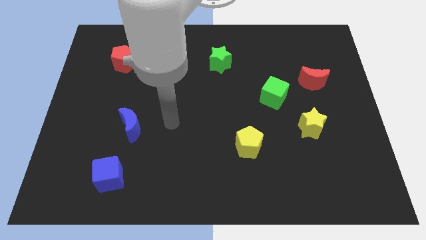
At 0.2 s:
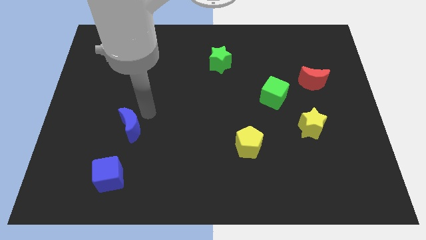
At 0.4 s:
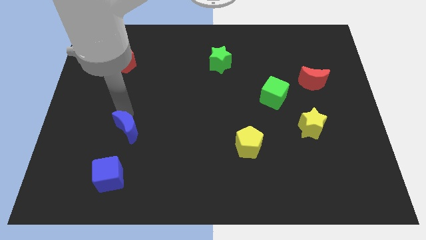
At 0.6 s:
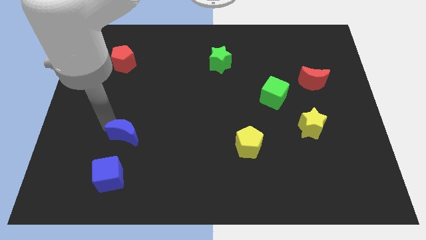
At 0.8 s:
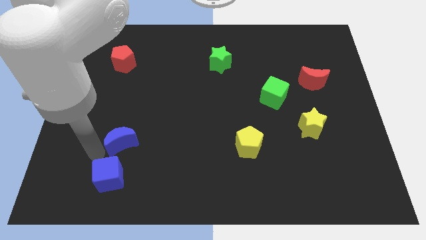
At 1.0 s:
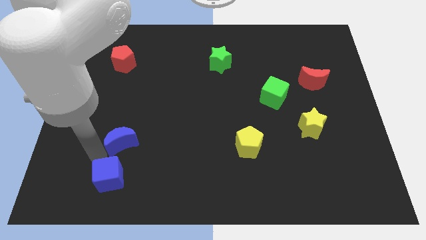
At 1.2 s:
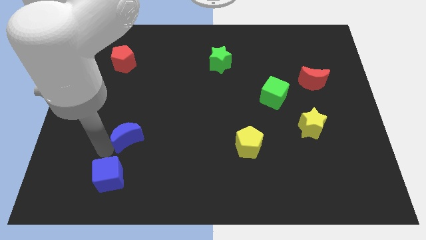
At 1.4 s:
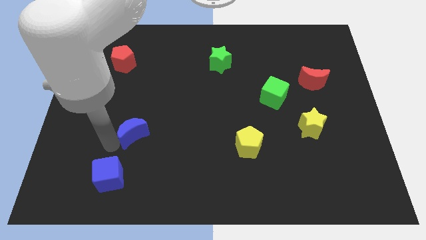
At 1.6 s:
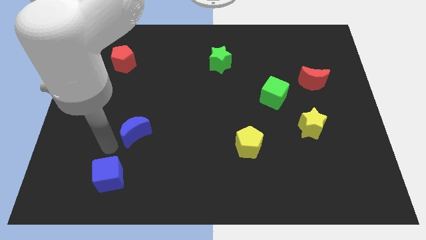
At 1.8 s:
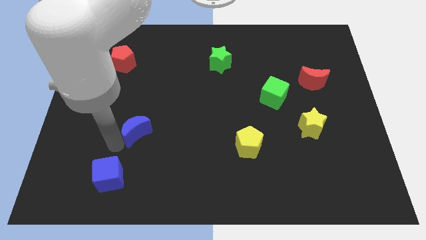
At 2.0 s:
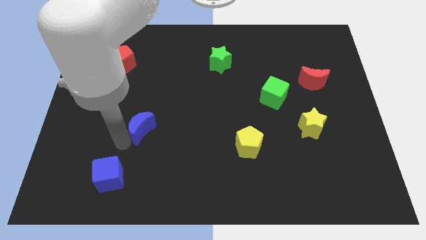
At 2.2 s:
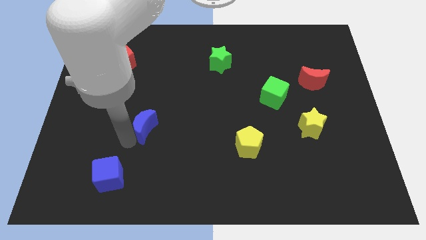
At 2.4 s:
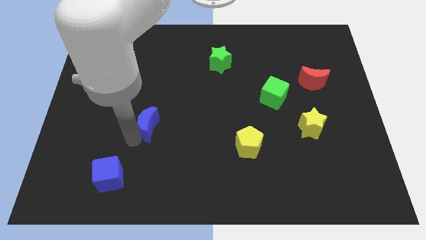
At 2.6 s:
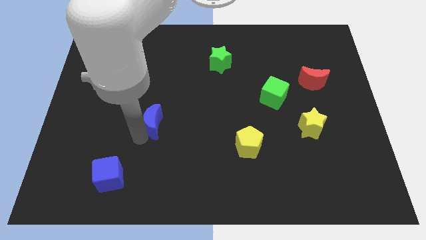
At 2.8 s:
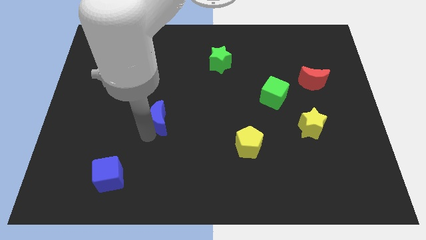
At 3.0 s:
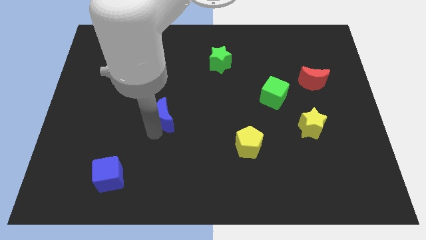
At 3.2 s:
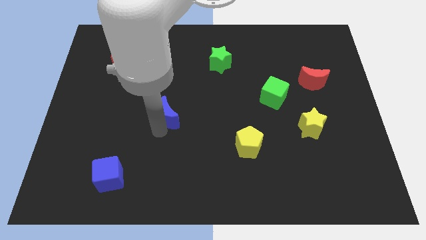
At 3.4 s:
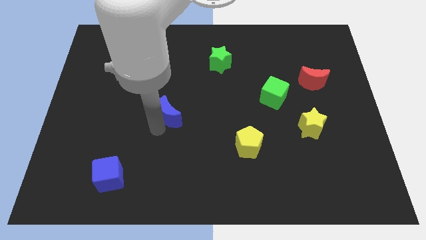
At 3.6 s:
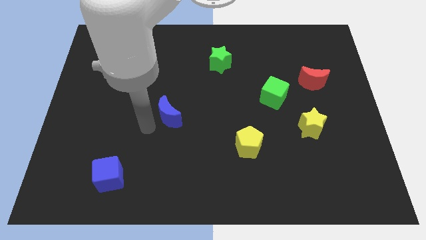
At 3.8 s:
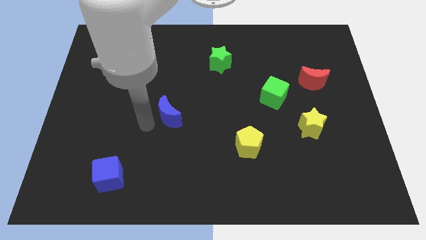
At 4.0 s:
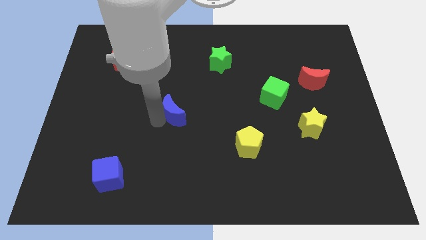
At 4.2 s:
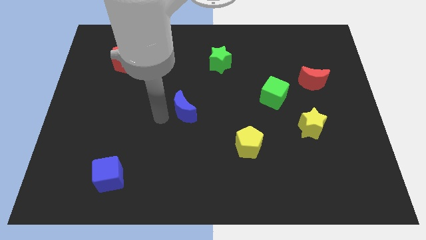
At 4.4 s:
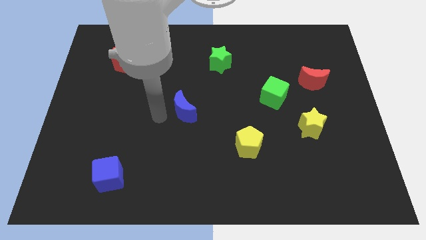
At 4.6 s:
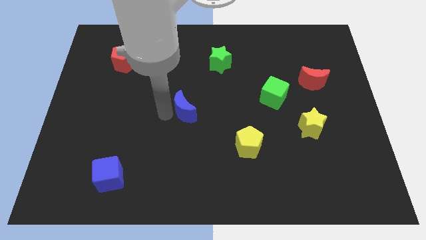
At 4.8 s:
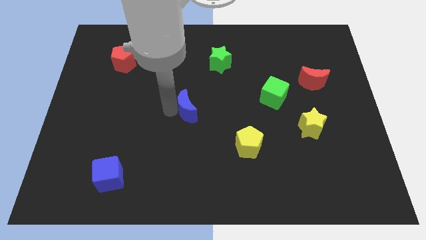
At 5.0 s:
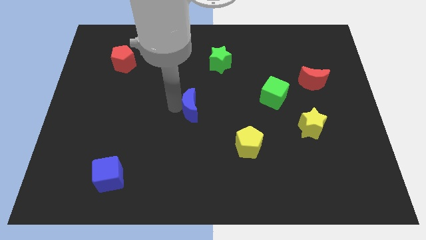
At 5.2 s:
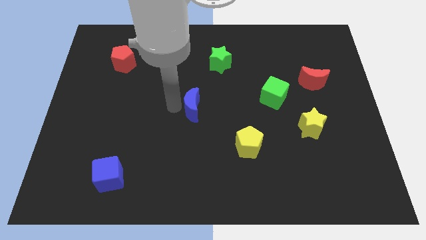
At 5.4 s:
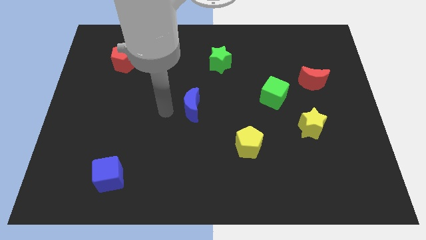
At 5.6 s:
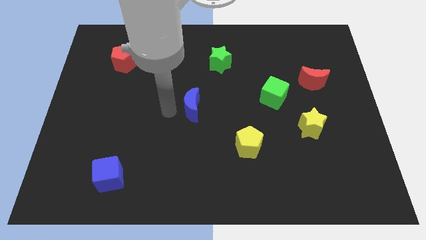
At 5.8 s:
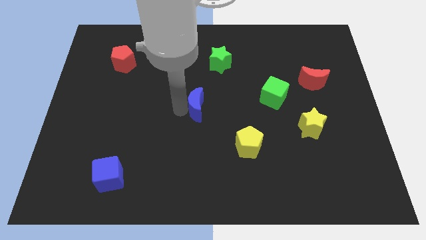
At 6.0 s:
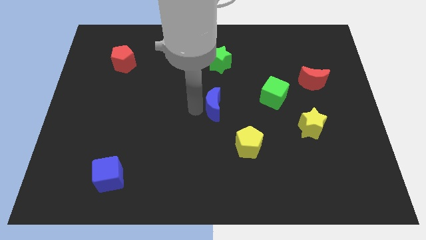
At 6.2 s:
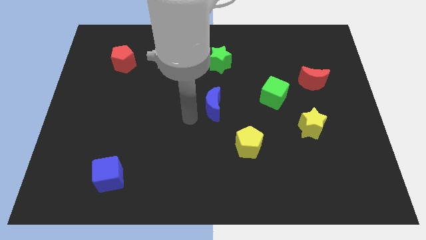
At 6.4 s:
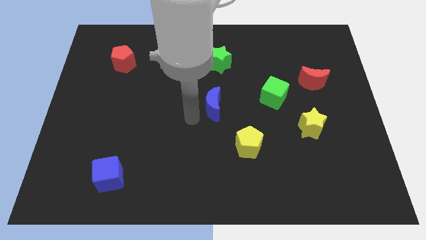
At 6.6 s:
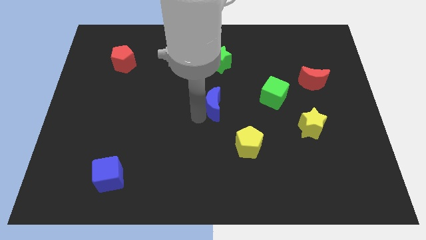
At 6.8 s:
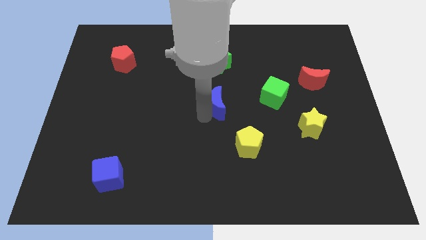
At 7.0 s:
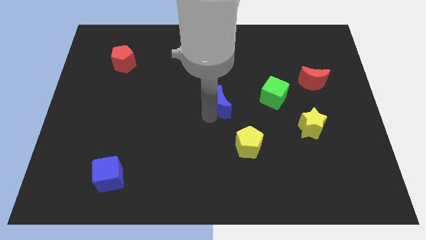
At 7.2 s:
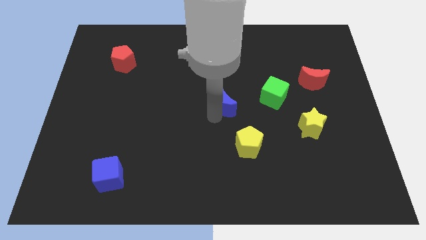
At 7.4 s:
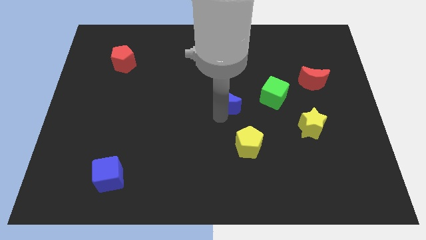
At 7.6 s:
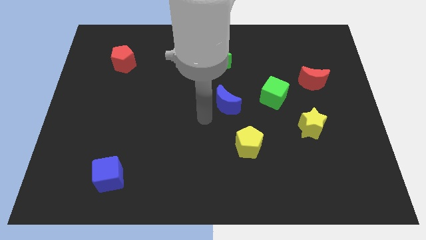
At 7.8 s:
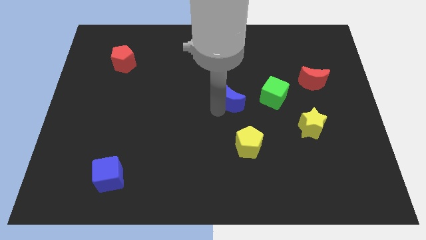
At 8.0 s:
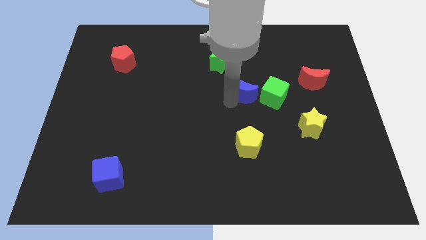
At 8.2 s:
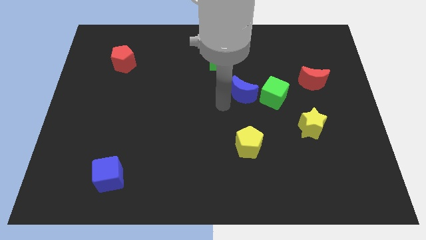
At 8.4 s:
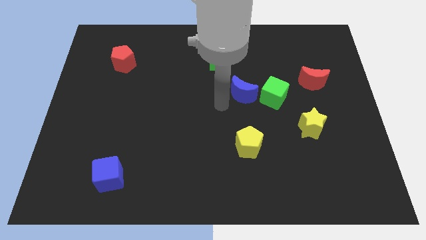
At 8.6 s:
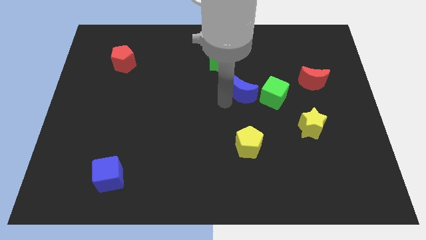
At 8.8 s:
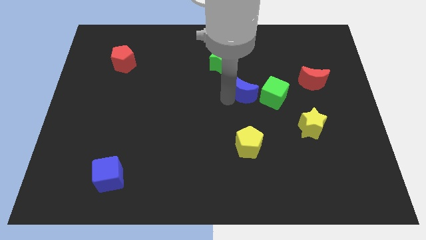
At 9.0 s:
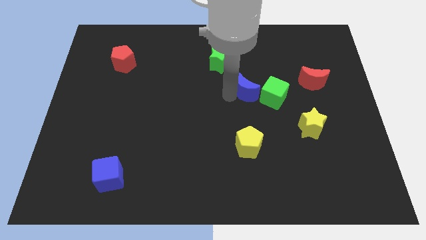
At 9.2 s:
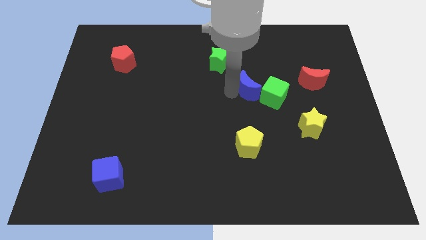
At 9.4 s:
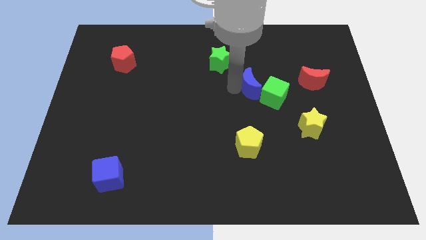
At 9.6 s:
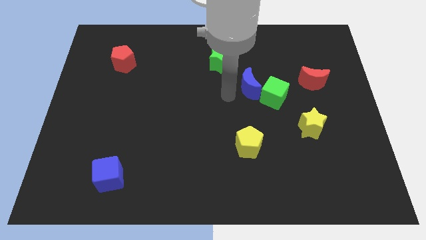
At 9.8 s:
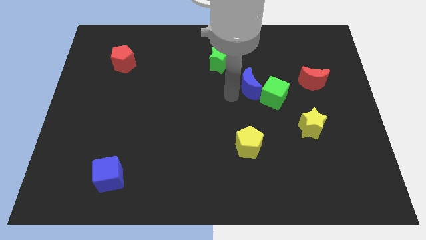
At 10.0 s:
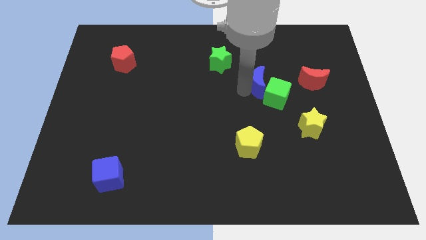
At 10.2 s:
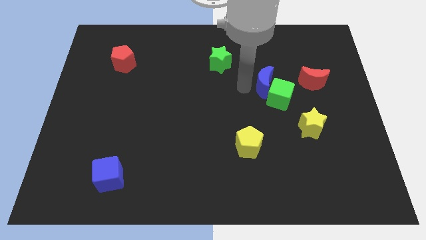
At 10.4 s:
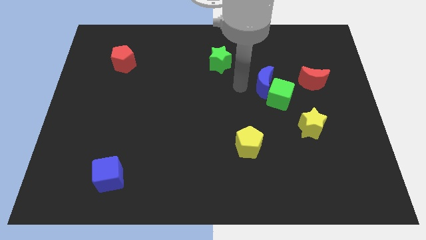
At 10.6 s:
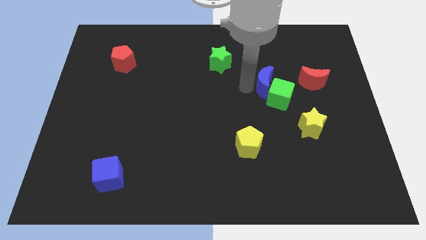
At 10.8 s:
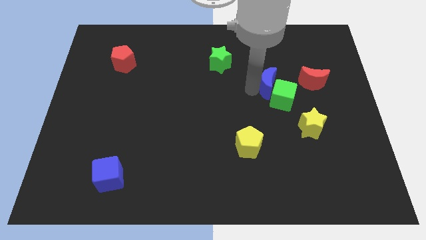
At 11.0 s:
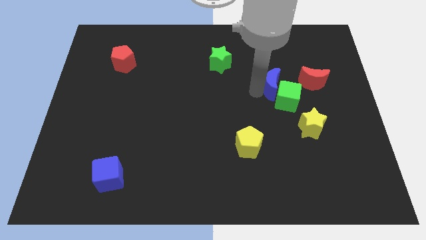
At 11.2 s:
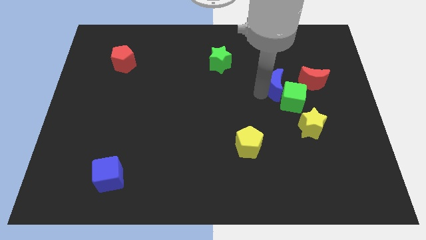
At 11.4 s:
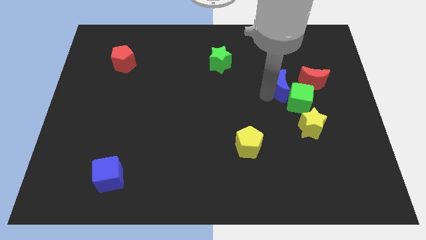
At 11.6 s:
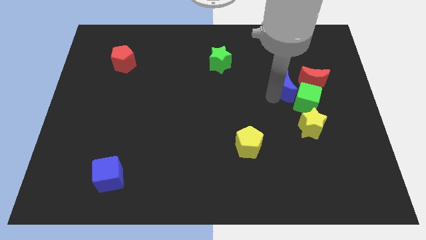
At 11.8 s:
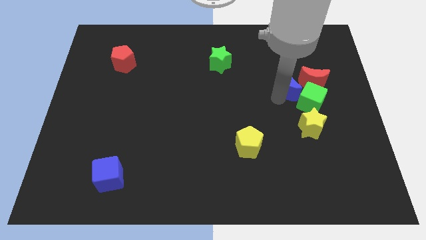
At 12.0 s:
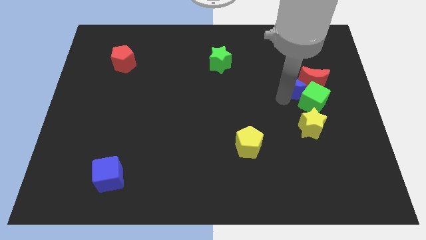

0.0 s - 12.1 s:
slide the blue moon close to the red moon

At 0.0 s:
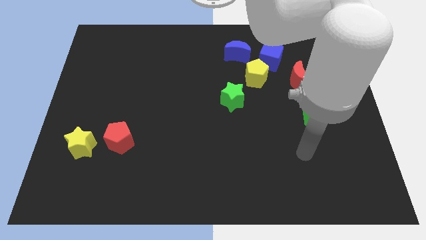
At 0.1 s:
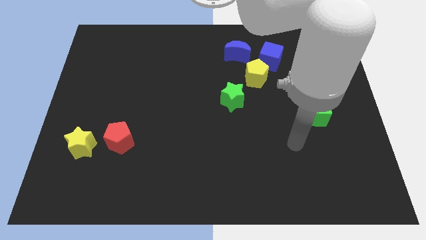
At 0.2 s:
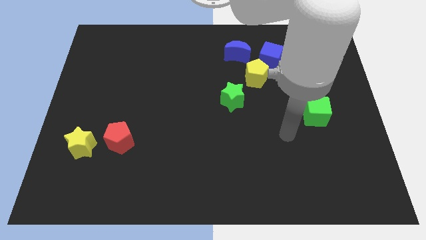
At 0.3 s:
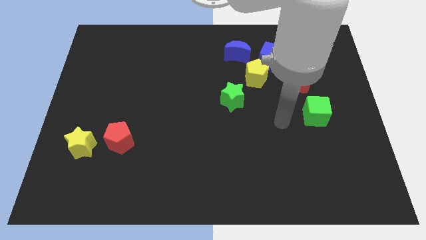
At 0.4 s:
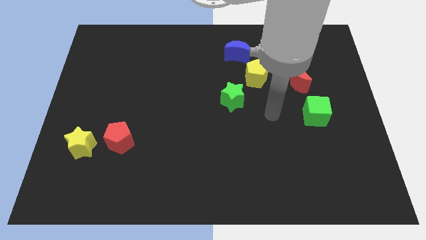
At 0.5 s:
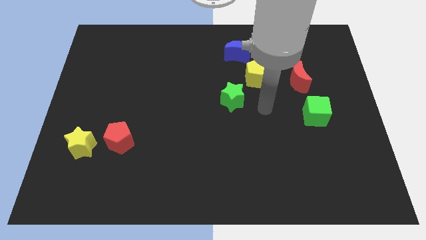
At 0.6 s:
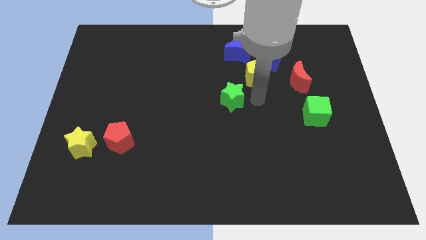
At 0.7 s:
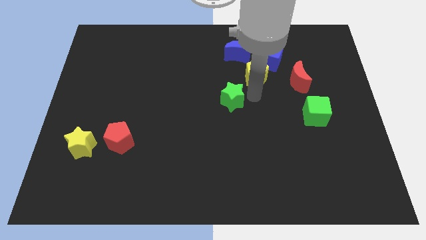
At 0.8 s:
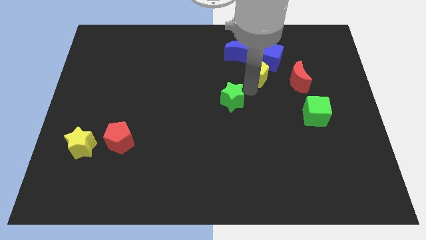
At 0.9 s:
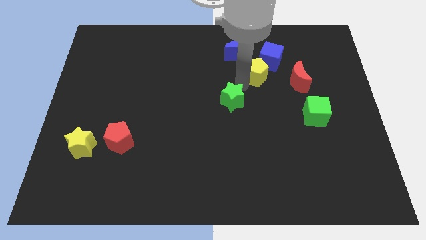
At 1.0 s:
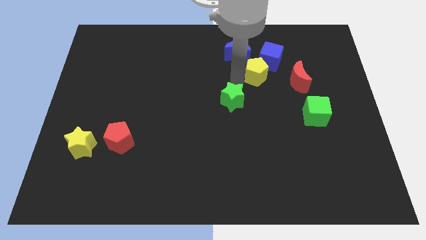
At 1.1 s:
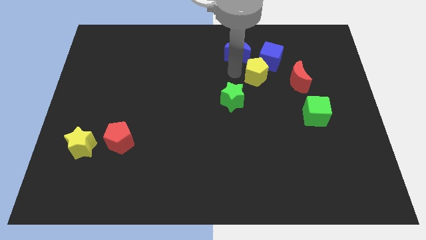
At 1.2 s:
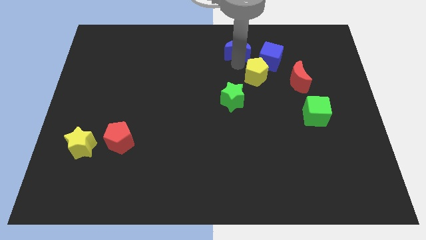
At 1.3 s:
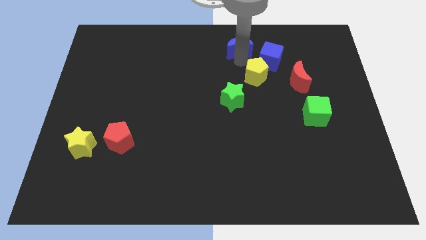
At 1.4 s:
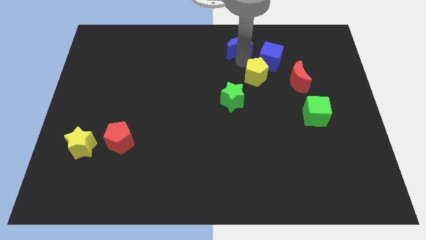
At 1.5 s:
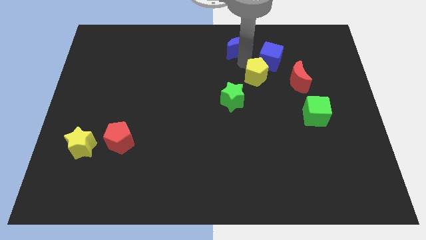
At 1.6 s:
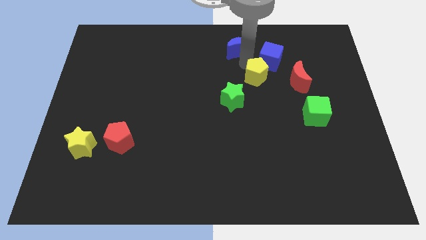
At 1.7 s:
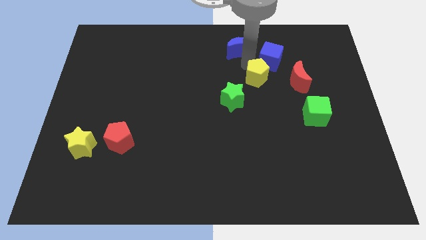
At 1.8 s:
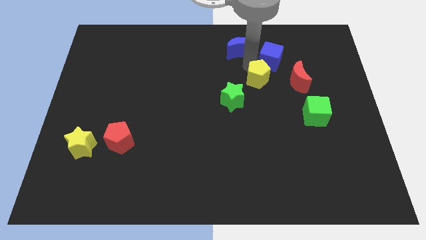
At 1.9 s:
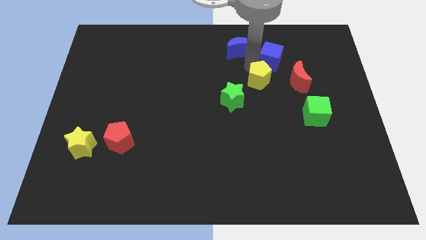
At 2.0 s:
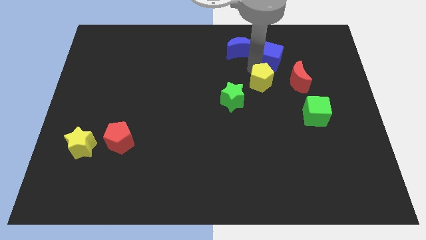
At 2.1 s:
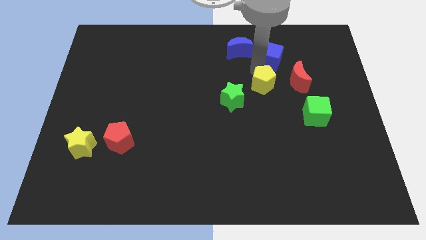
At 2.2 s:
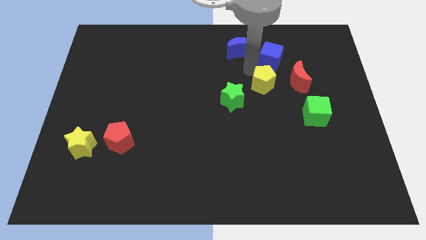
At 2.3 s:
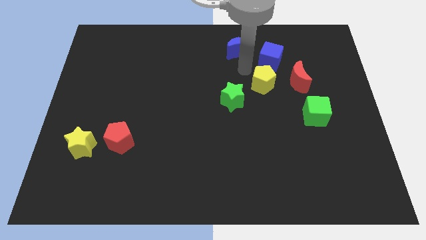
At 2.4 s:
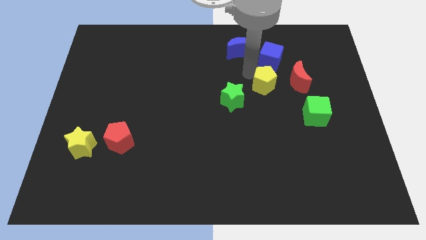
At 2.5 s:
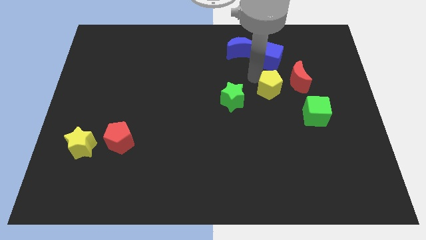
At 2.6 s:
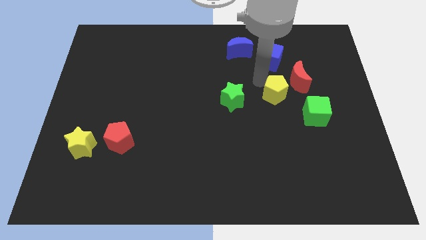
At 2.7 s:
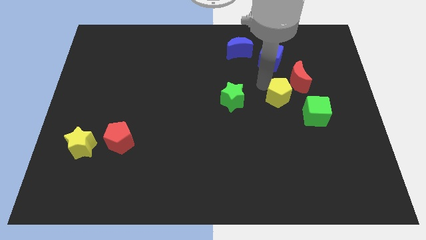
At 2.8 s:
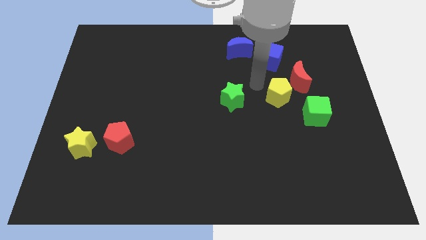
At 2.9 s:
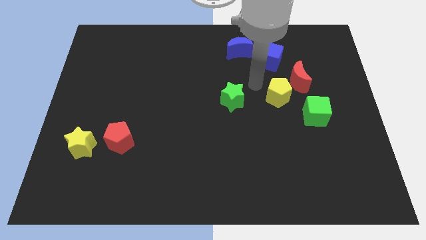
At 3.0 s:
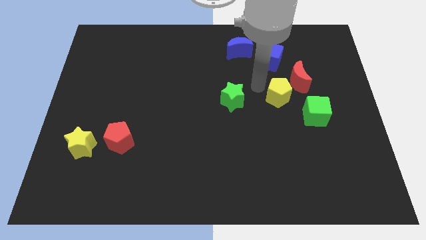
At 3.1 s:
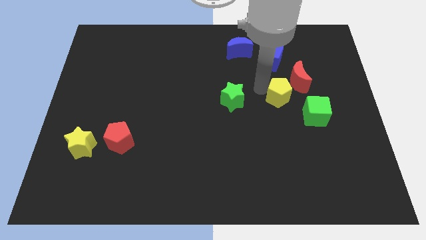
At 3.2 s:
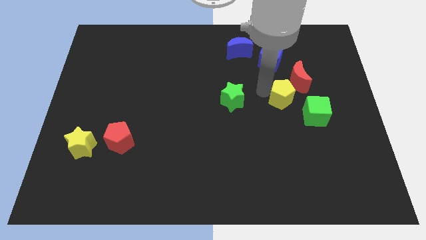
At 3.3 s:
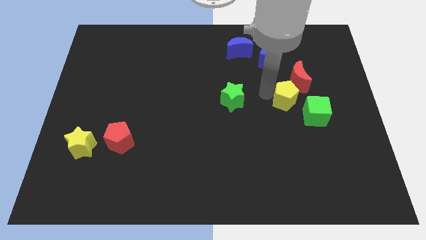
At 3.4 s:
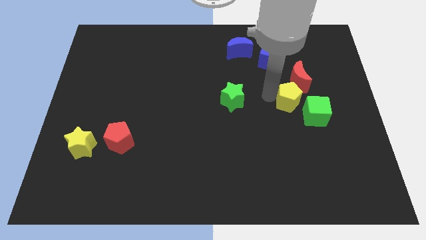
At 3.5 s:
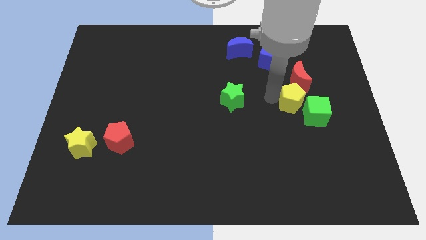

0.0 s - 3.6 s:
move the yellow pentagon close to the green cube
